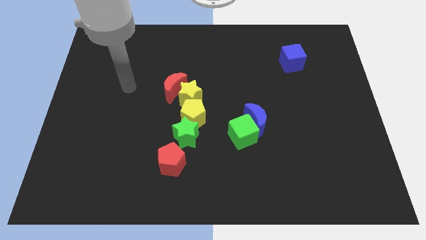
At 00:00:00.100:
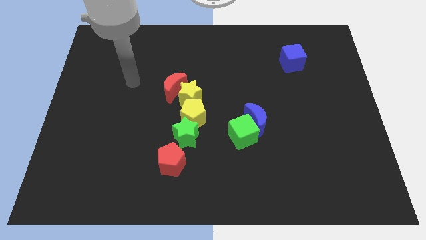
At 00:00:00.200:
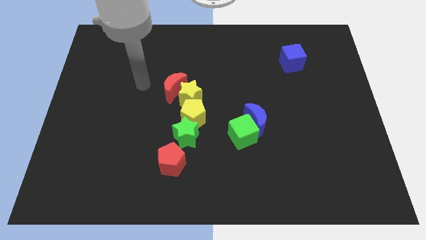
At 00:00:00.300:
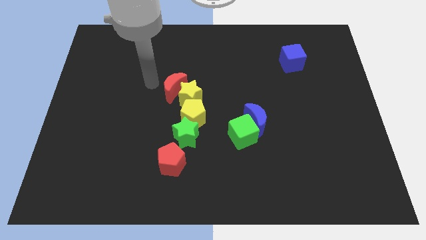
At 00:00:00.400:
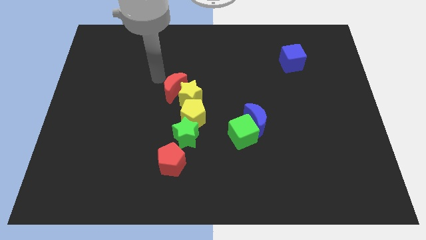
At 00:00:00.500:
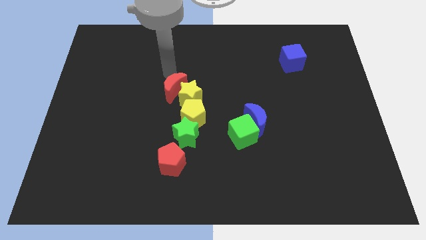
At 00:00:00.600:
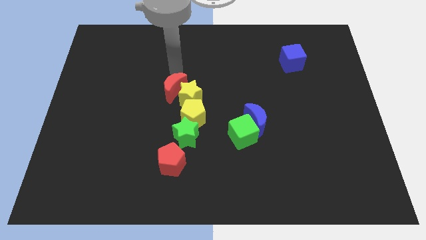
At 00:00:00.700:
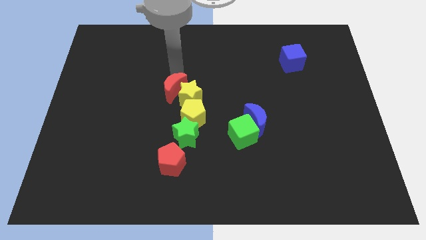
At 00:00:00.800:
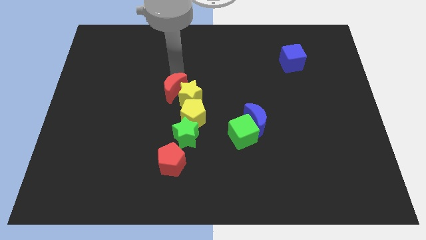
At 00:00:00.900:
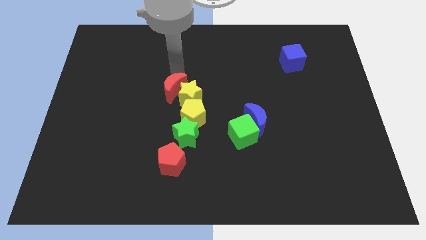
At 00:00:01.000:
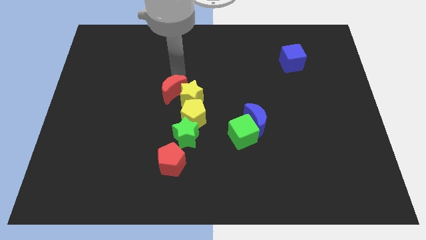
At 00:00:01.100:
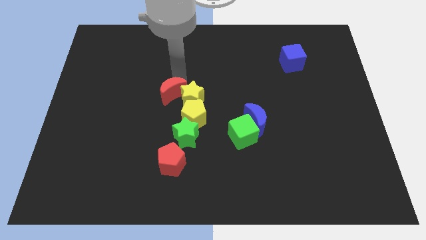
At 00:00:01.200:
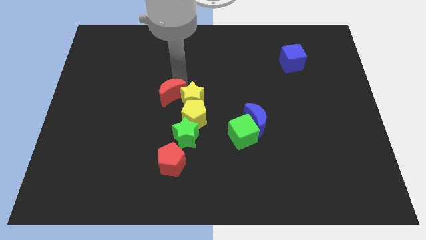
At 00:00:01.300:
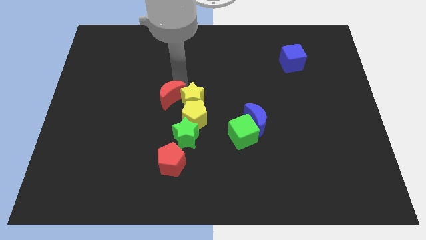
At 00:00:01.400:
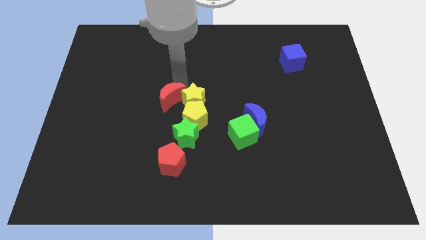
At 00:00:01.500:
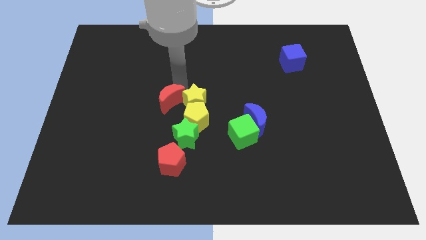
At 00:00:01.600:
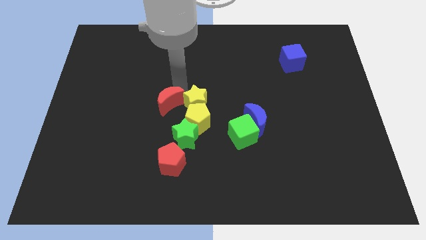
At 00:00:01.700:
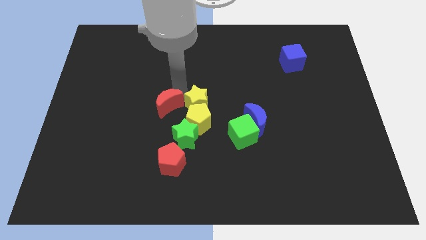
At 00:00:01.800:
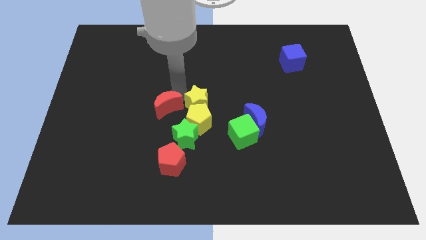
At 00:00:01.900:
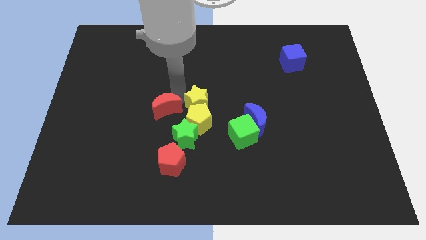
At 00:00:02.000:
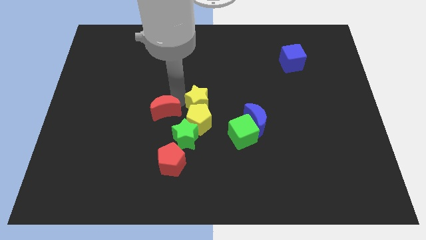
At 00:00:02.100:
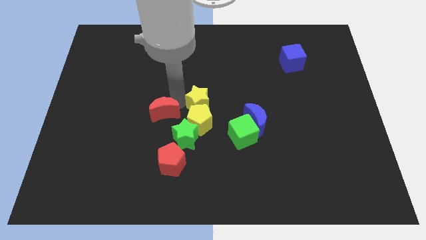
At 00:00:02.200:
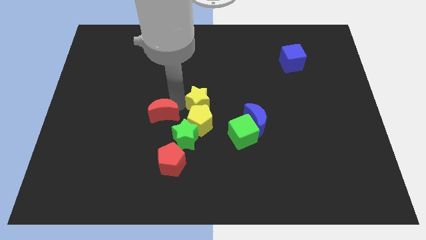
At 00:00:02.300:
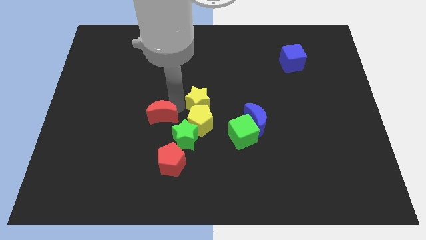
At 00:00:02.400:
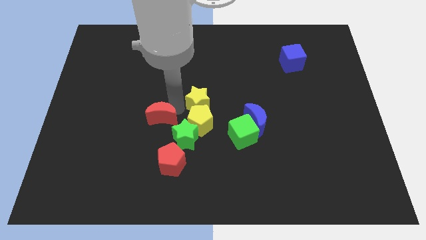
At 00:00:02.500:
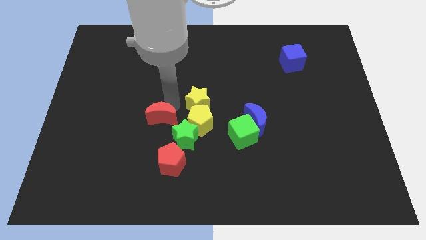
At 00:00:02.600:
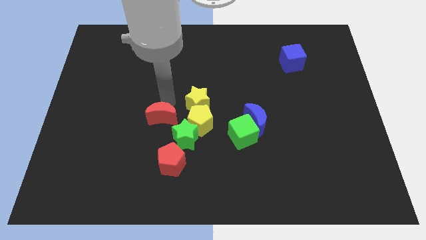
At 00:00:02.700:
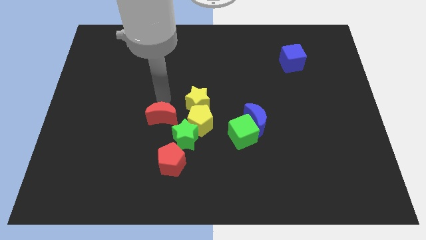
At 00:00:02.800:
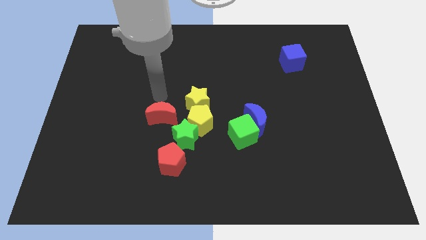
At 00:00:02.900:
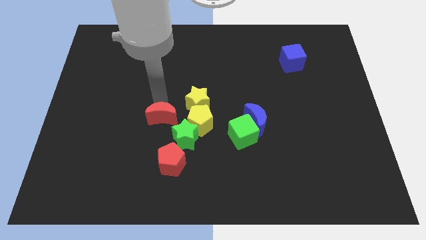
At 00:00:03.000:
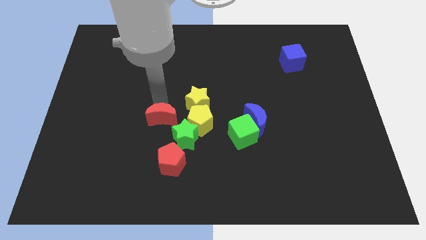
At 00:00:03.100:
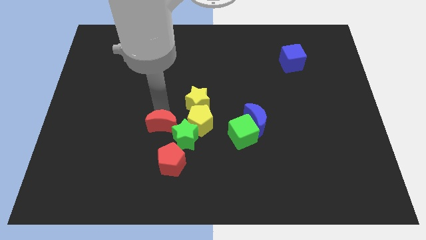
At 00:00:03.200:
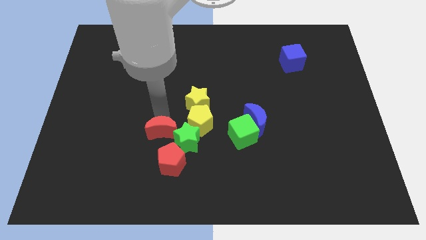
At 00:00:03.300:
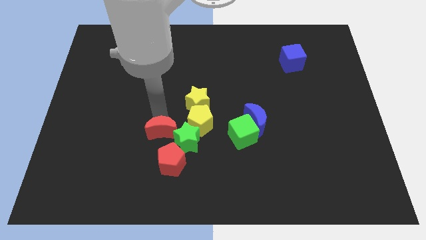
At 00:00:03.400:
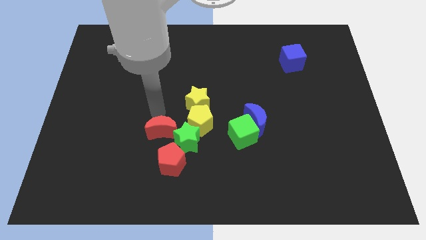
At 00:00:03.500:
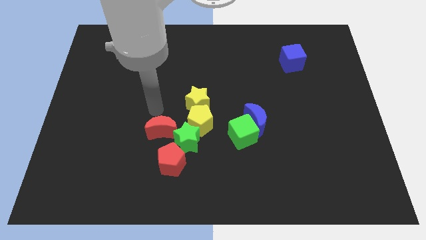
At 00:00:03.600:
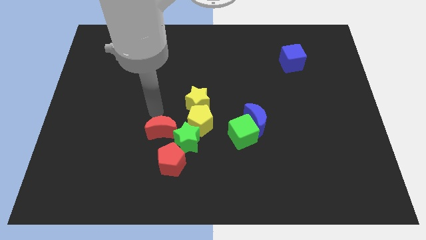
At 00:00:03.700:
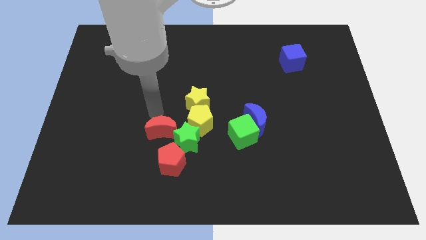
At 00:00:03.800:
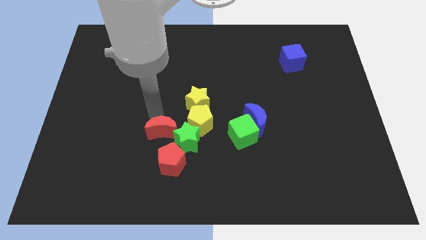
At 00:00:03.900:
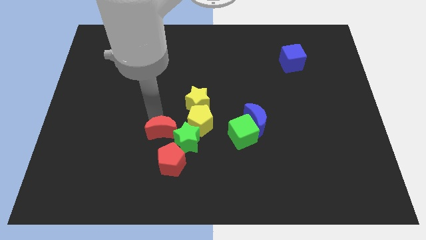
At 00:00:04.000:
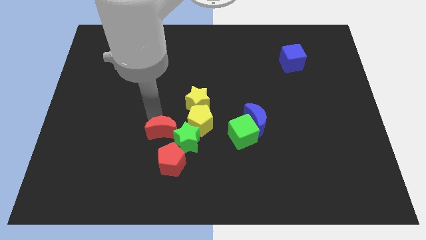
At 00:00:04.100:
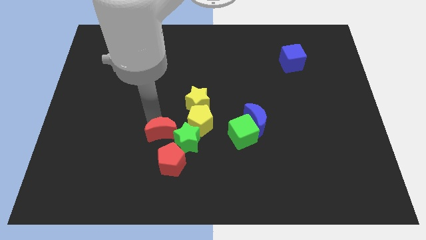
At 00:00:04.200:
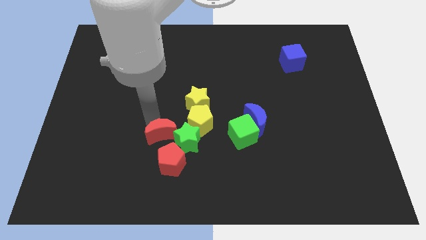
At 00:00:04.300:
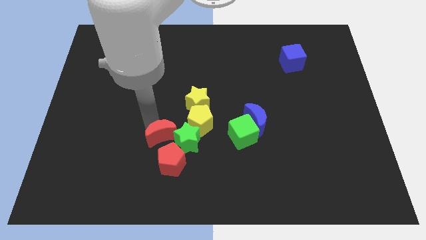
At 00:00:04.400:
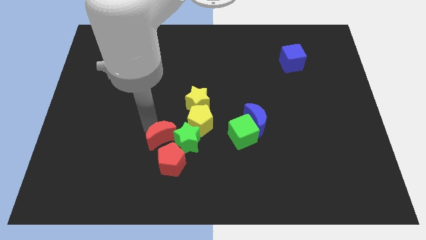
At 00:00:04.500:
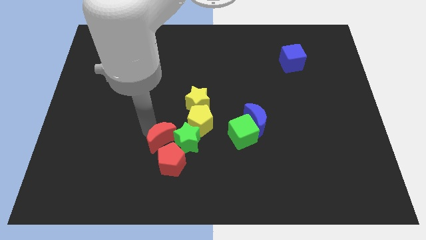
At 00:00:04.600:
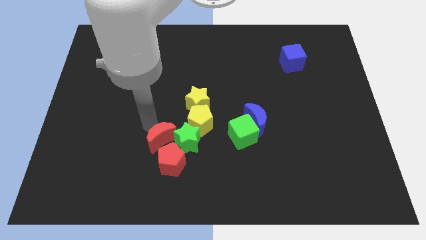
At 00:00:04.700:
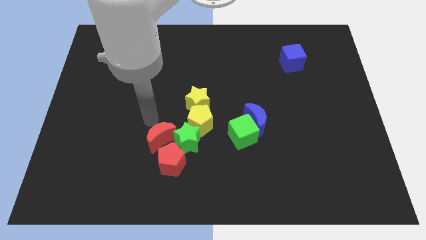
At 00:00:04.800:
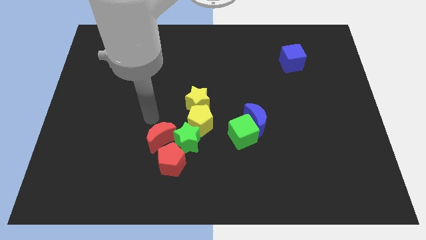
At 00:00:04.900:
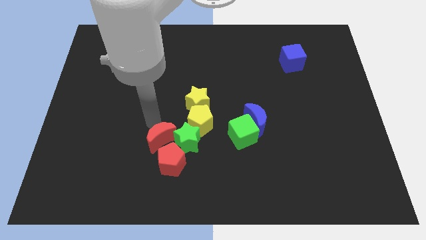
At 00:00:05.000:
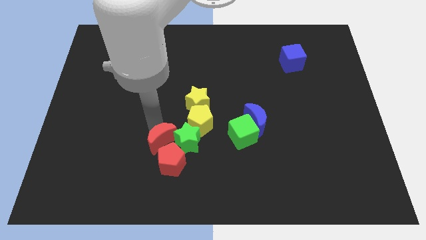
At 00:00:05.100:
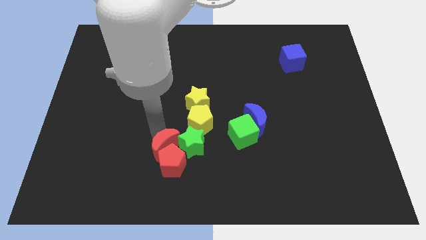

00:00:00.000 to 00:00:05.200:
put the red moon close to the red pentagon

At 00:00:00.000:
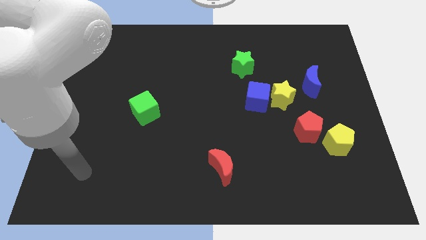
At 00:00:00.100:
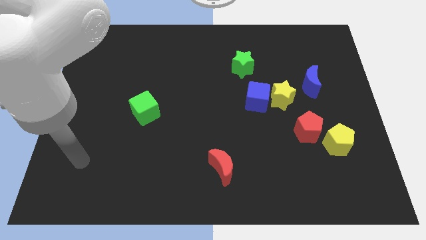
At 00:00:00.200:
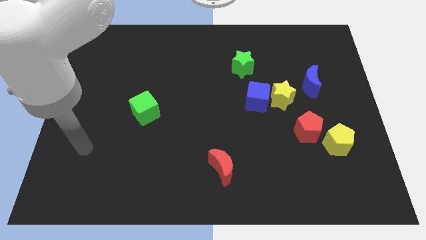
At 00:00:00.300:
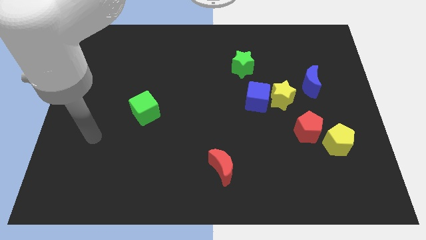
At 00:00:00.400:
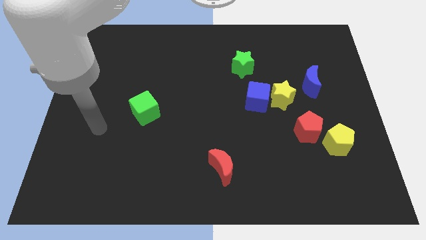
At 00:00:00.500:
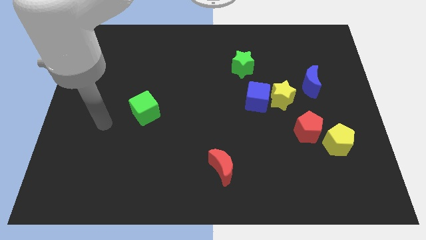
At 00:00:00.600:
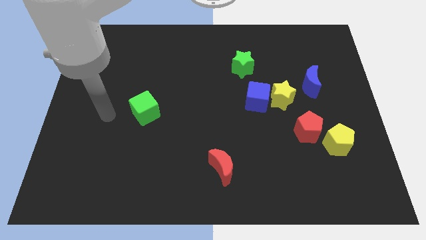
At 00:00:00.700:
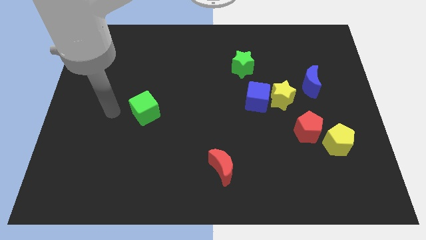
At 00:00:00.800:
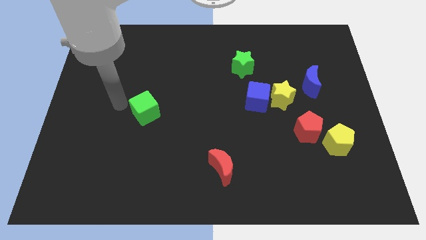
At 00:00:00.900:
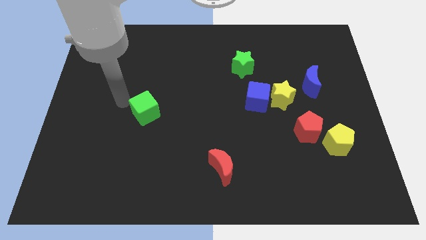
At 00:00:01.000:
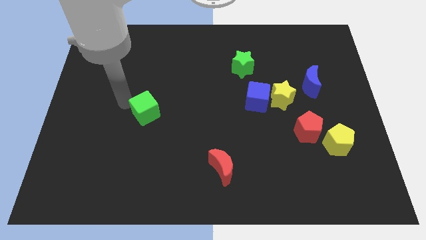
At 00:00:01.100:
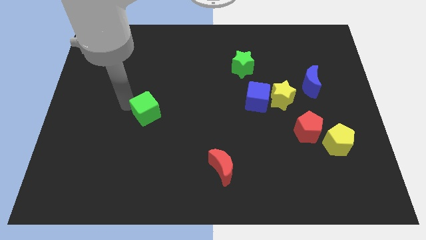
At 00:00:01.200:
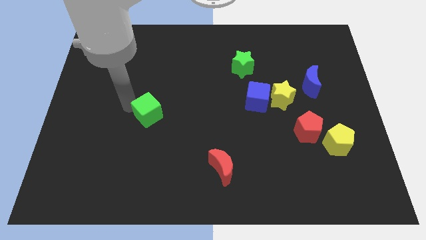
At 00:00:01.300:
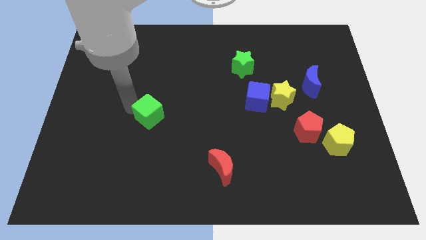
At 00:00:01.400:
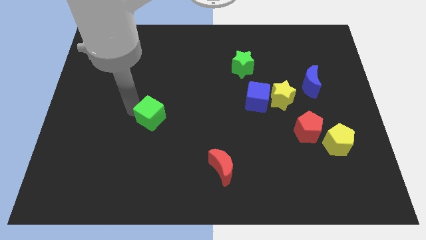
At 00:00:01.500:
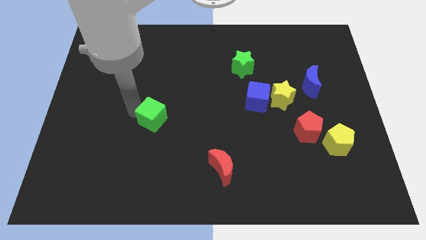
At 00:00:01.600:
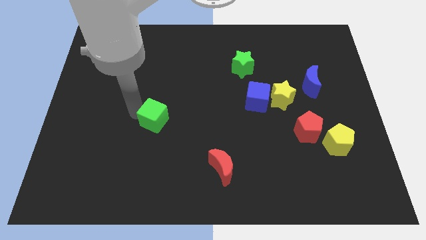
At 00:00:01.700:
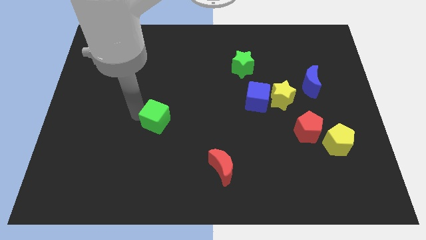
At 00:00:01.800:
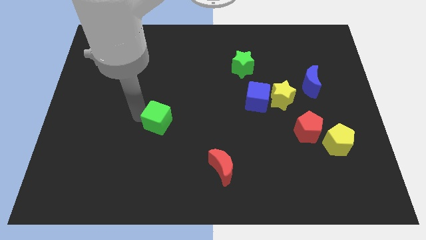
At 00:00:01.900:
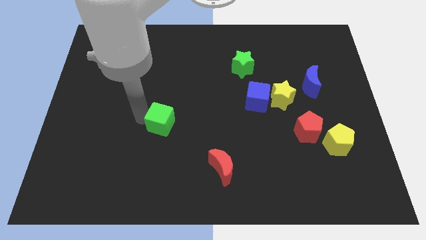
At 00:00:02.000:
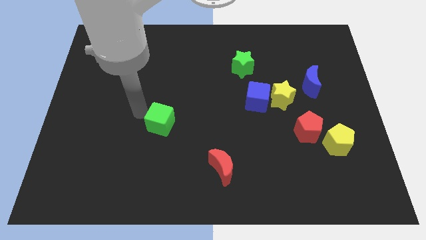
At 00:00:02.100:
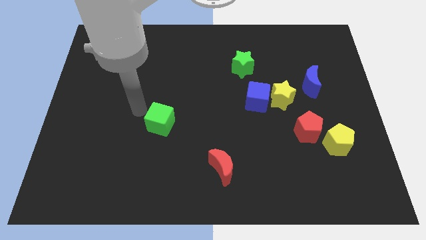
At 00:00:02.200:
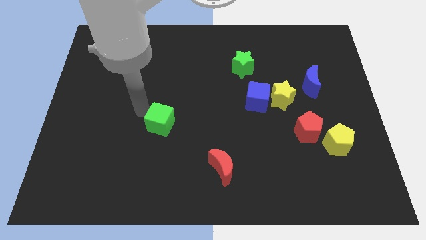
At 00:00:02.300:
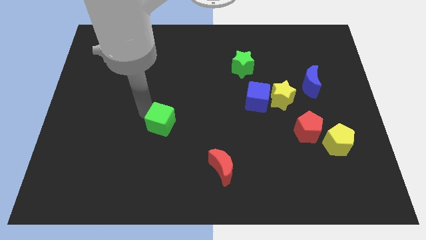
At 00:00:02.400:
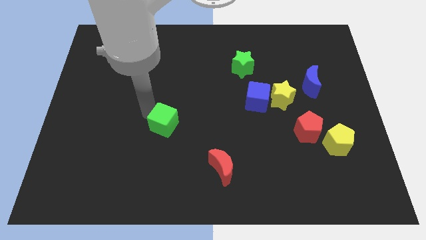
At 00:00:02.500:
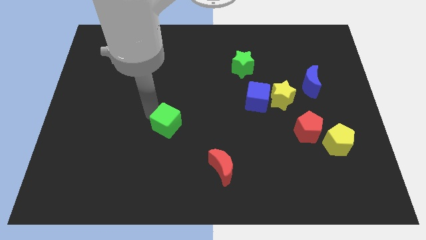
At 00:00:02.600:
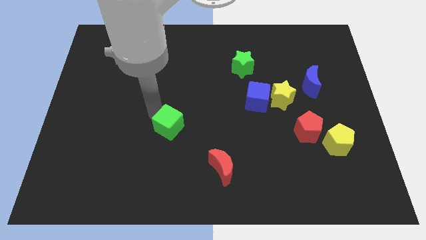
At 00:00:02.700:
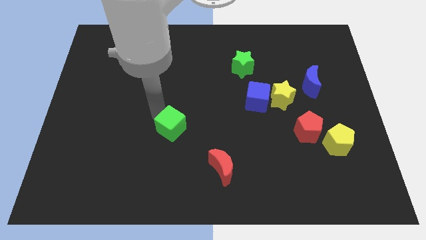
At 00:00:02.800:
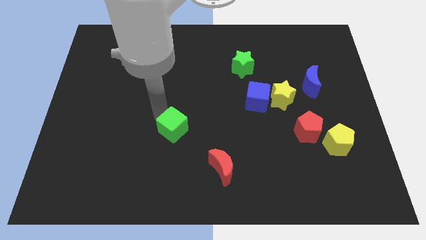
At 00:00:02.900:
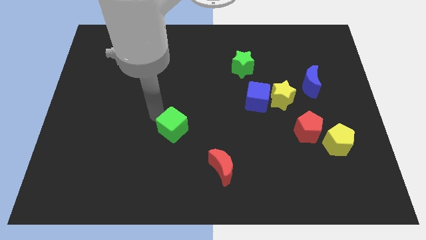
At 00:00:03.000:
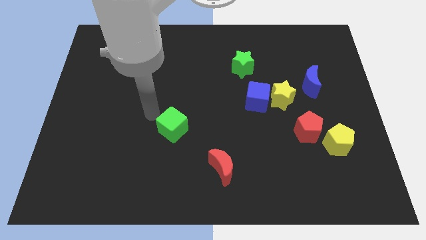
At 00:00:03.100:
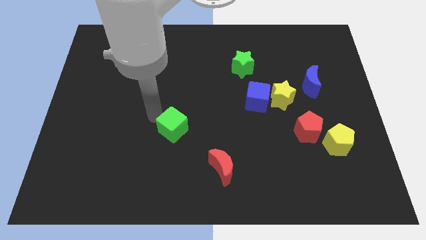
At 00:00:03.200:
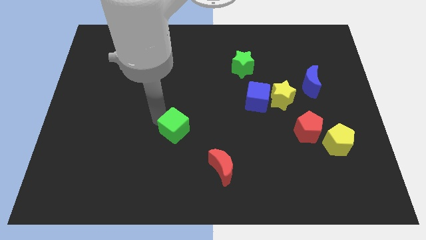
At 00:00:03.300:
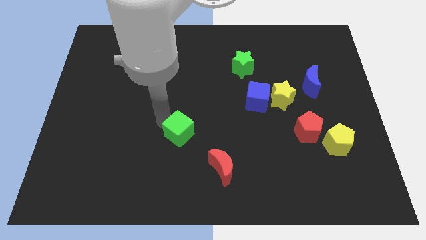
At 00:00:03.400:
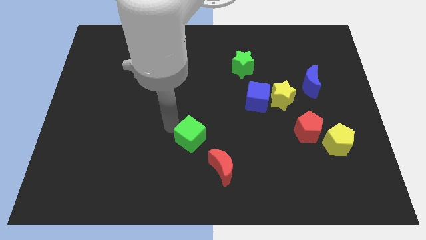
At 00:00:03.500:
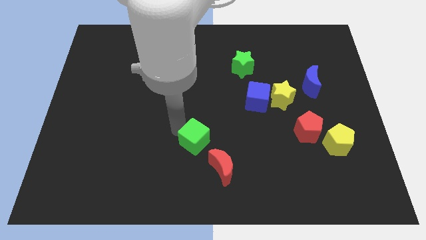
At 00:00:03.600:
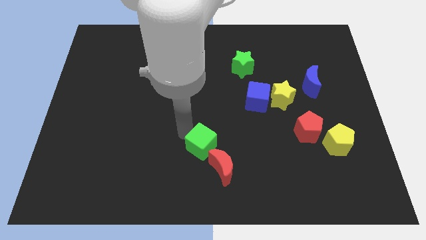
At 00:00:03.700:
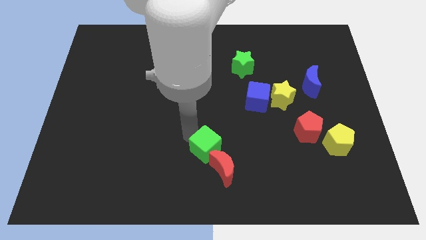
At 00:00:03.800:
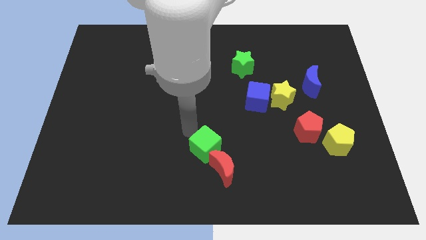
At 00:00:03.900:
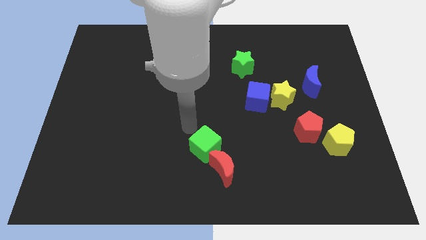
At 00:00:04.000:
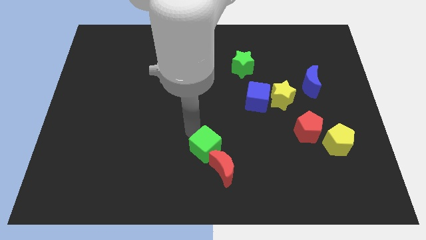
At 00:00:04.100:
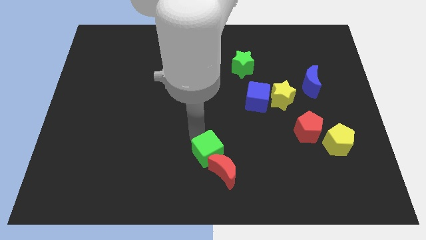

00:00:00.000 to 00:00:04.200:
slide the green cube close to the red moon
